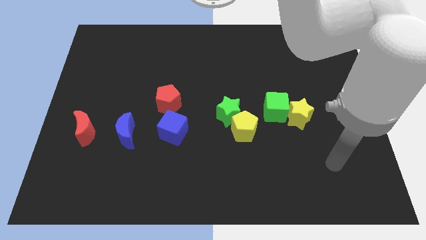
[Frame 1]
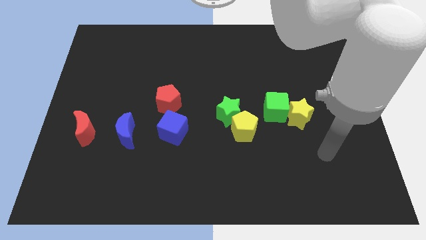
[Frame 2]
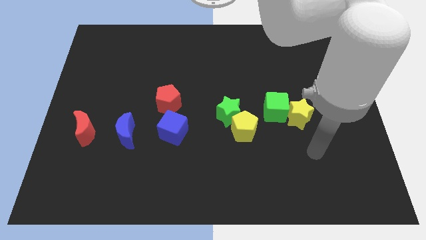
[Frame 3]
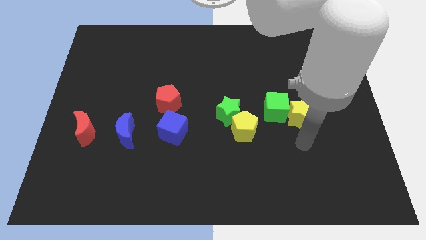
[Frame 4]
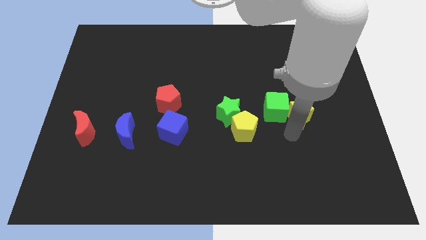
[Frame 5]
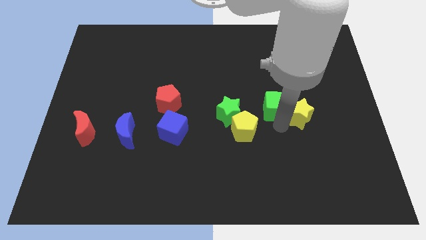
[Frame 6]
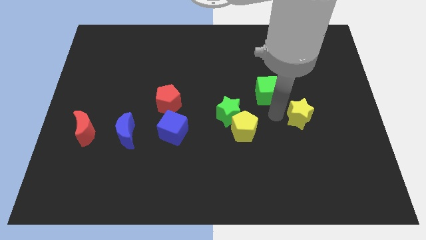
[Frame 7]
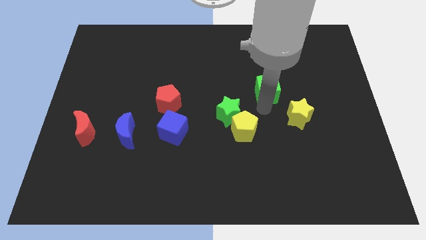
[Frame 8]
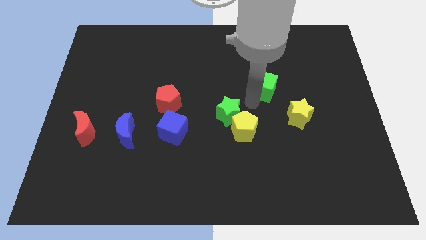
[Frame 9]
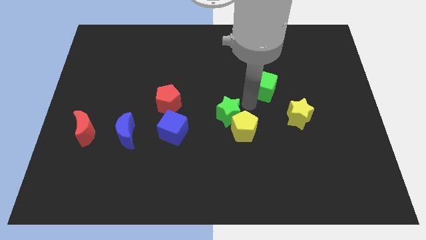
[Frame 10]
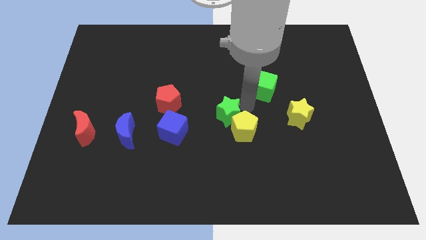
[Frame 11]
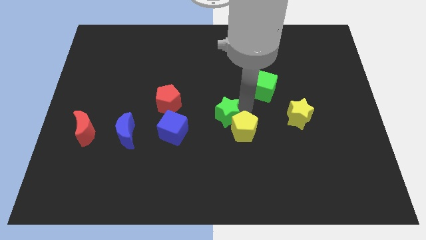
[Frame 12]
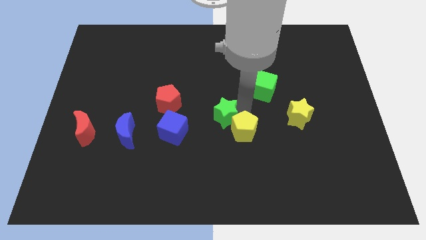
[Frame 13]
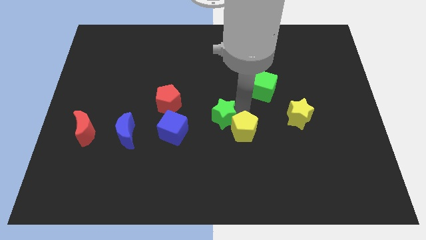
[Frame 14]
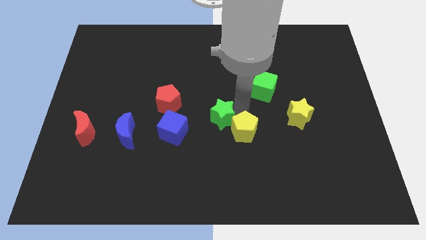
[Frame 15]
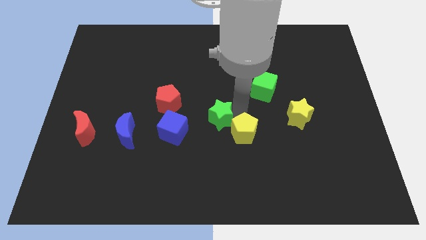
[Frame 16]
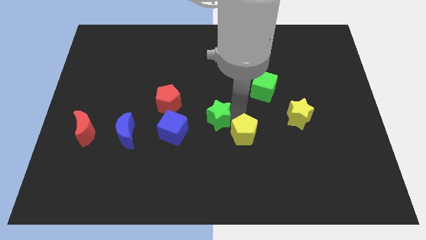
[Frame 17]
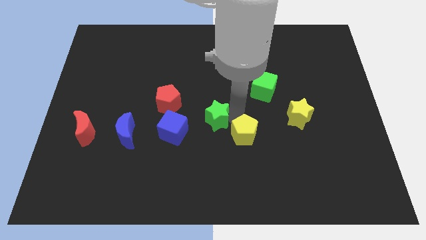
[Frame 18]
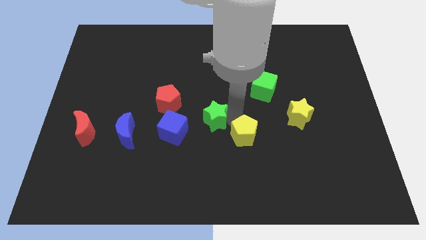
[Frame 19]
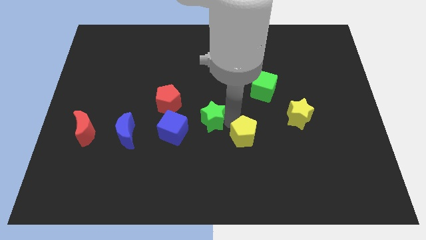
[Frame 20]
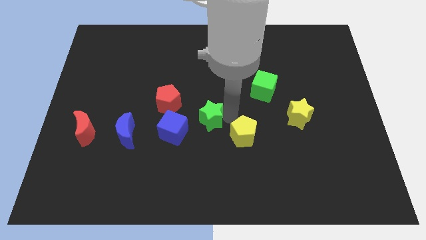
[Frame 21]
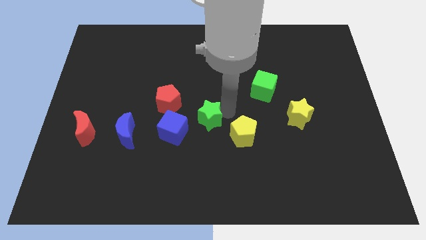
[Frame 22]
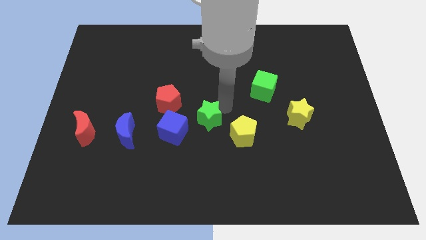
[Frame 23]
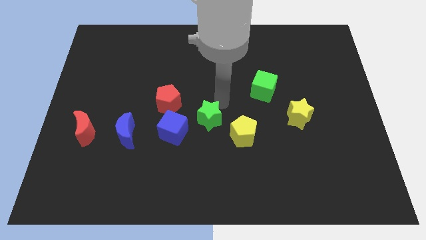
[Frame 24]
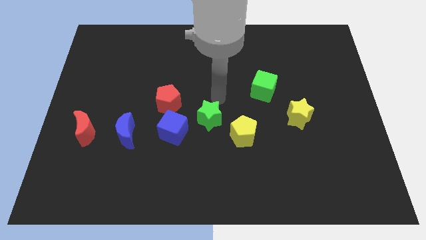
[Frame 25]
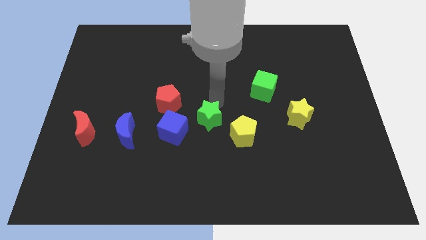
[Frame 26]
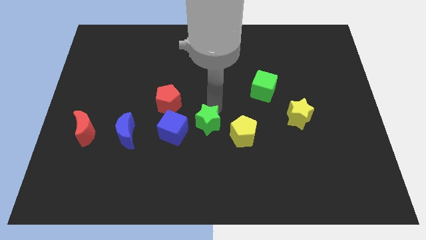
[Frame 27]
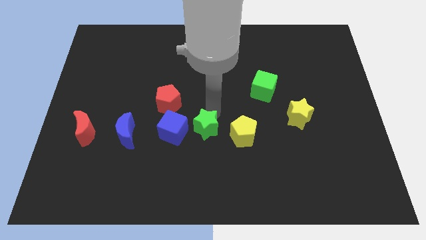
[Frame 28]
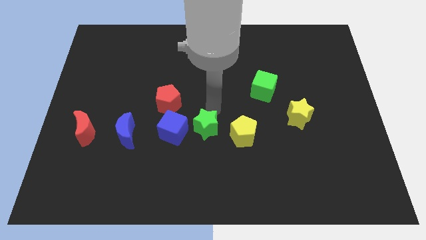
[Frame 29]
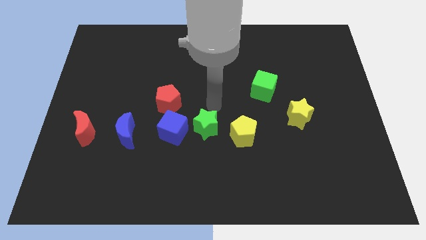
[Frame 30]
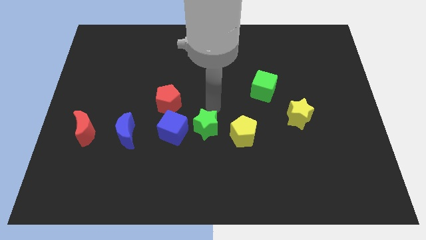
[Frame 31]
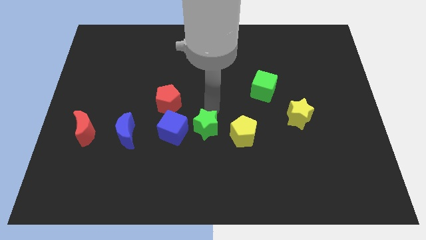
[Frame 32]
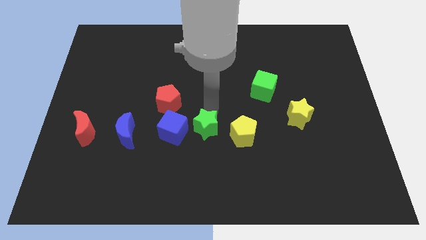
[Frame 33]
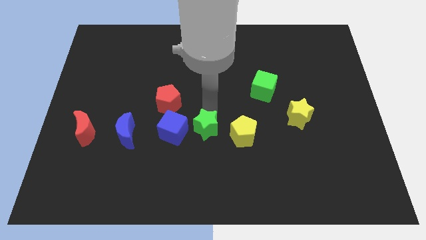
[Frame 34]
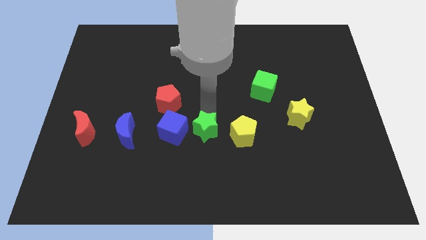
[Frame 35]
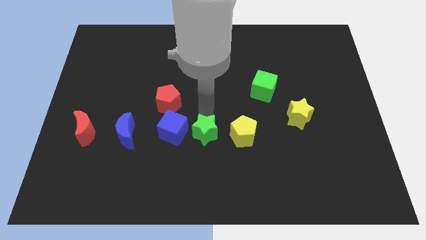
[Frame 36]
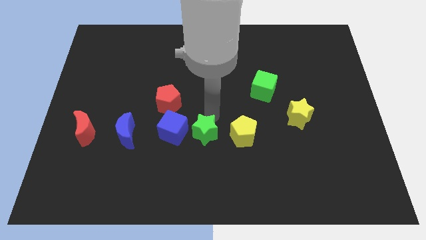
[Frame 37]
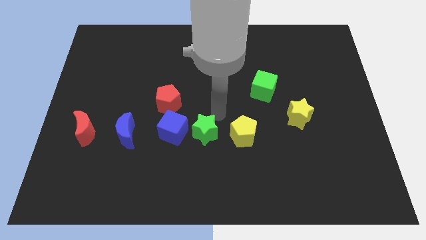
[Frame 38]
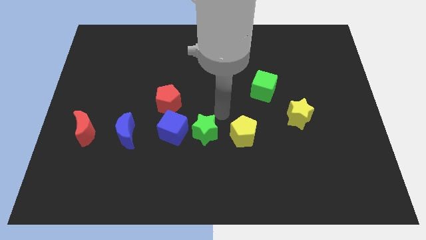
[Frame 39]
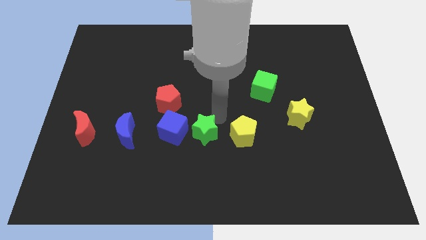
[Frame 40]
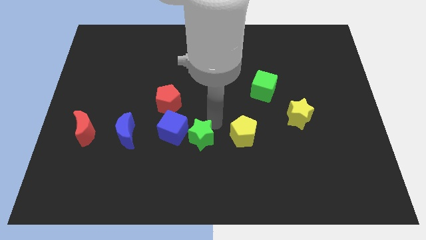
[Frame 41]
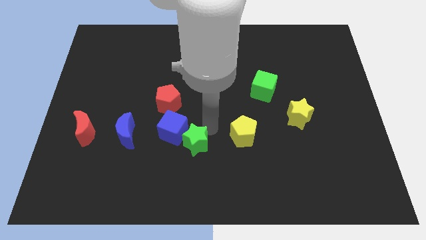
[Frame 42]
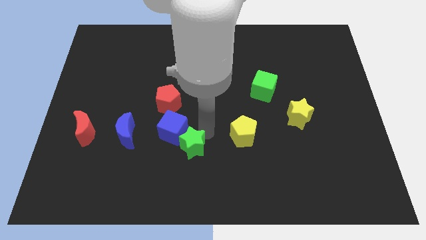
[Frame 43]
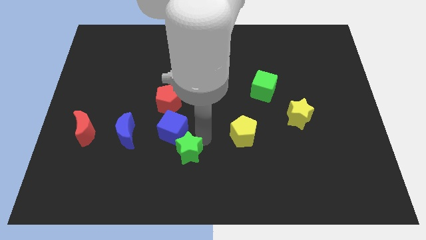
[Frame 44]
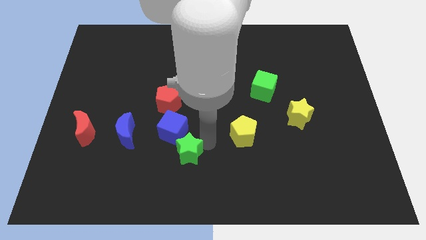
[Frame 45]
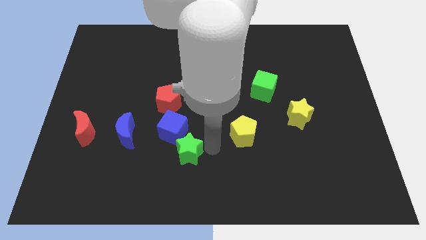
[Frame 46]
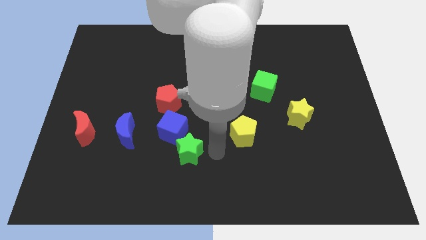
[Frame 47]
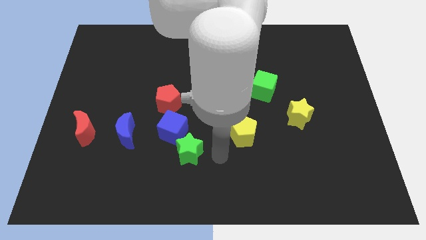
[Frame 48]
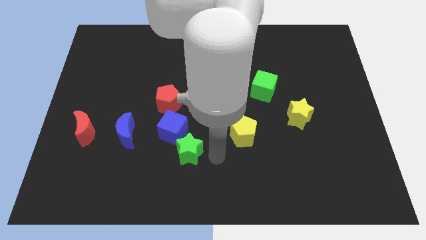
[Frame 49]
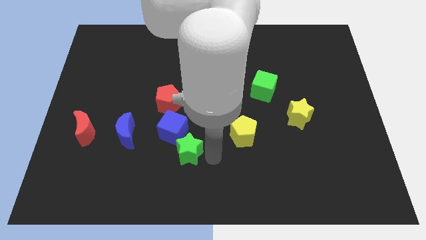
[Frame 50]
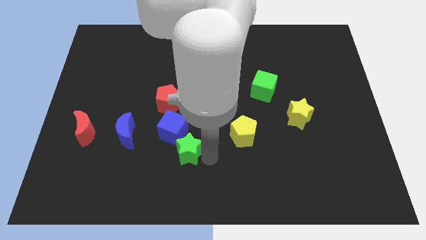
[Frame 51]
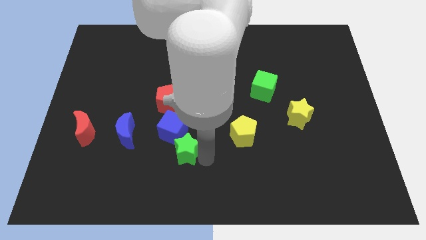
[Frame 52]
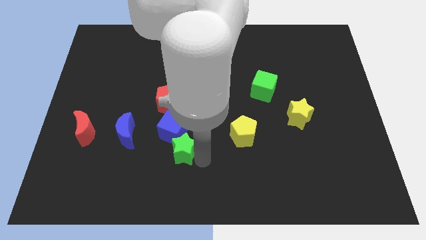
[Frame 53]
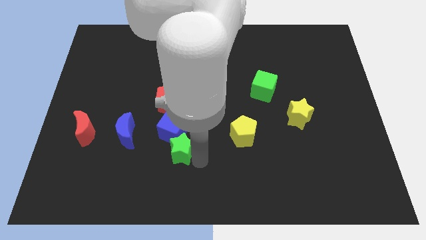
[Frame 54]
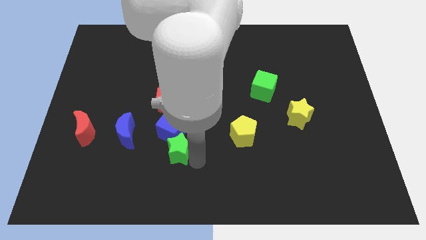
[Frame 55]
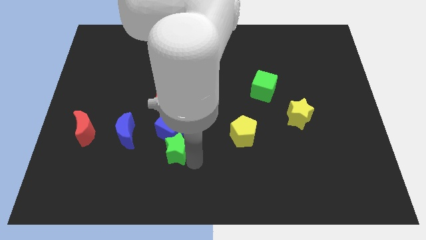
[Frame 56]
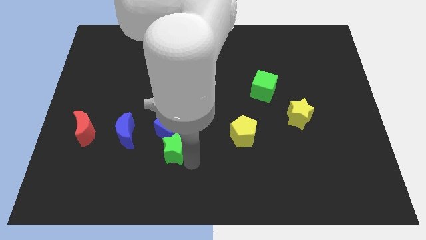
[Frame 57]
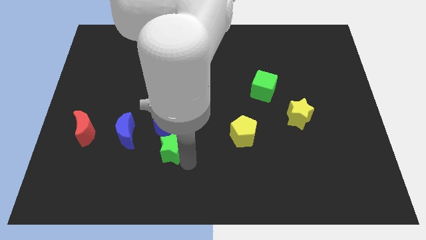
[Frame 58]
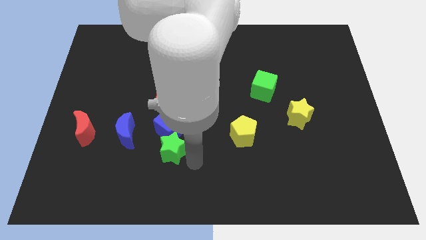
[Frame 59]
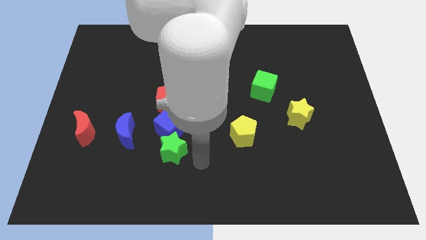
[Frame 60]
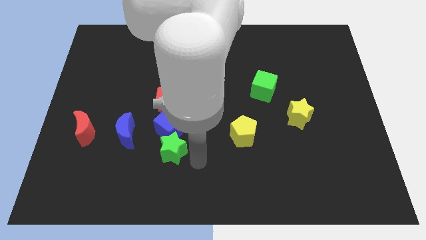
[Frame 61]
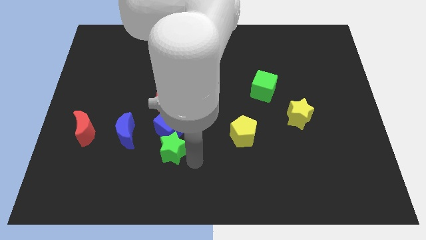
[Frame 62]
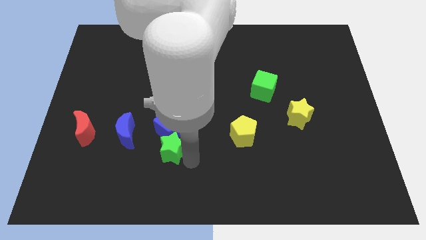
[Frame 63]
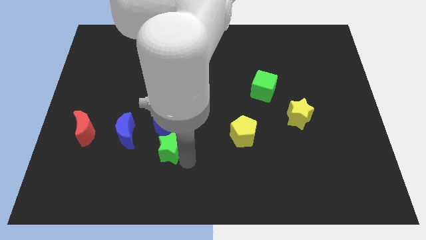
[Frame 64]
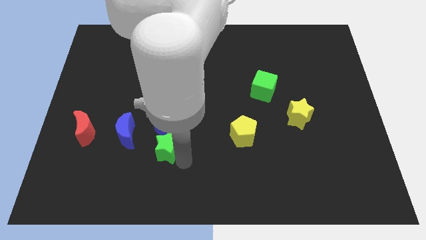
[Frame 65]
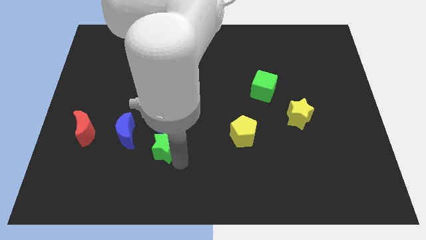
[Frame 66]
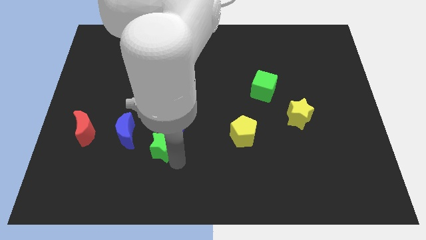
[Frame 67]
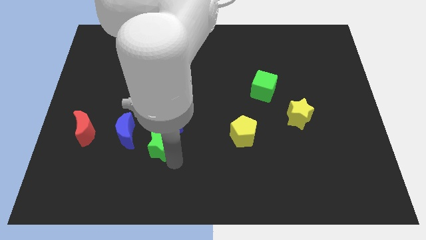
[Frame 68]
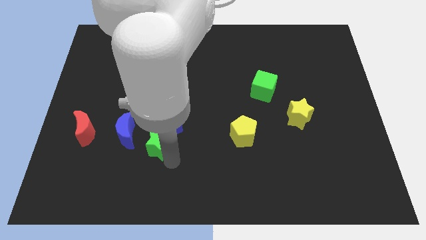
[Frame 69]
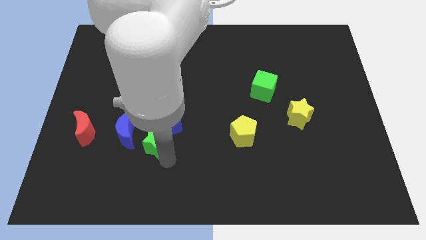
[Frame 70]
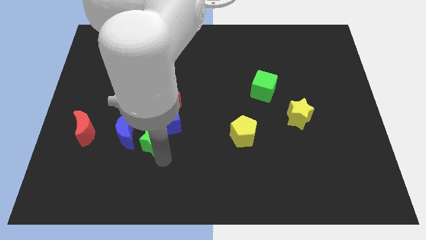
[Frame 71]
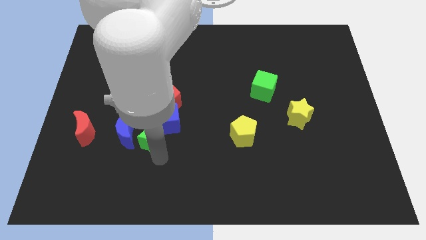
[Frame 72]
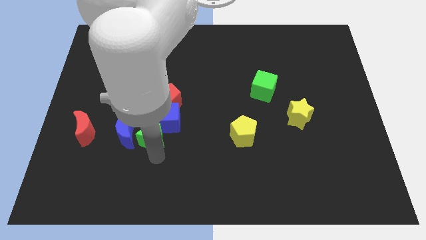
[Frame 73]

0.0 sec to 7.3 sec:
slide the green star next to the blue moon

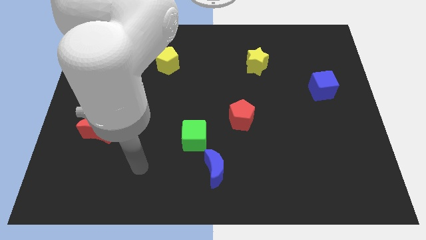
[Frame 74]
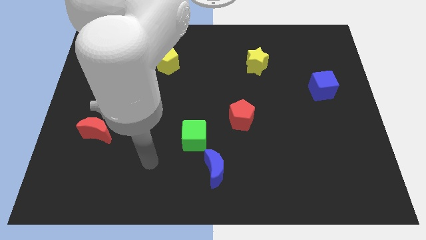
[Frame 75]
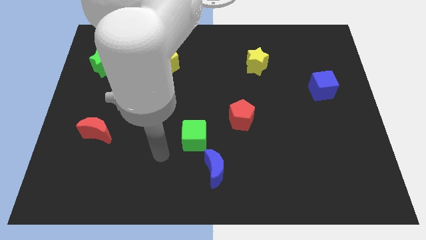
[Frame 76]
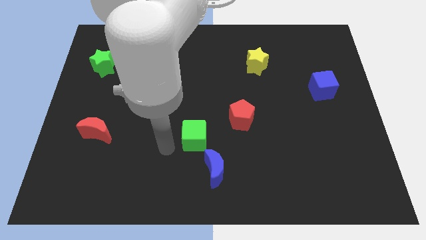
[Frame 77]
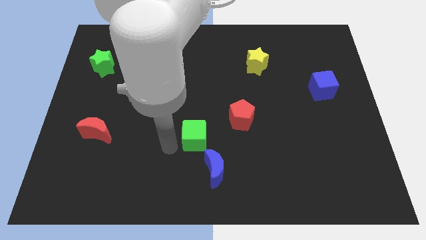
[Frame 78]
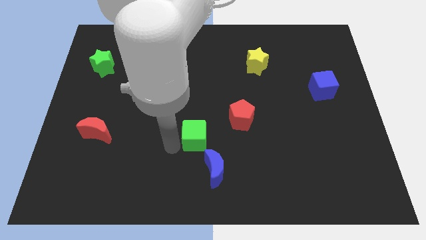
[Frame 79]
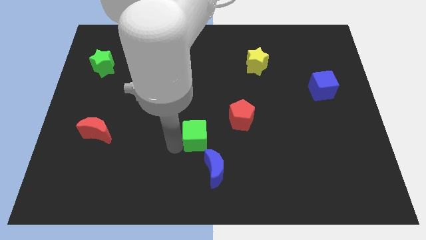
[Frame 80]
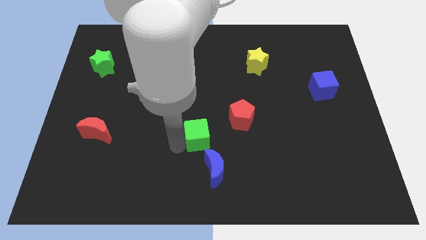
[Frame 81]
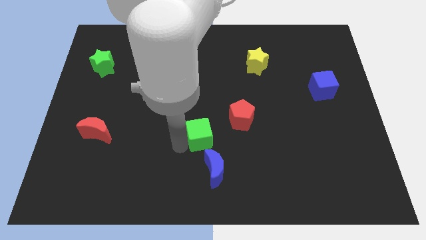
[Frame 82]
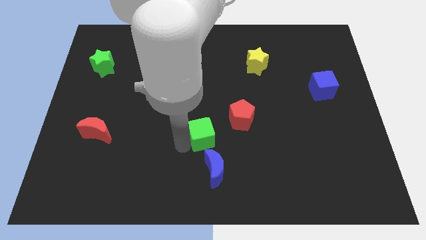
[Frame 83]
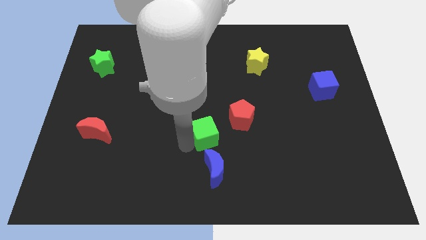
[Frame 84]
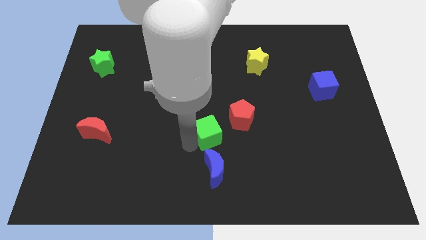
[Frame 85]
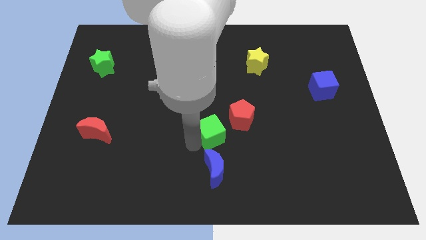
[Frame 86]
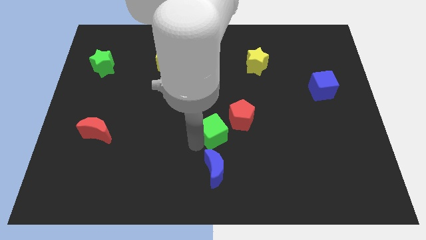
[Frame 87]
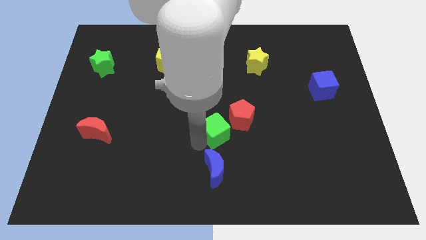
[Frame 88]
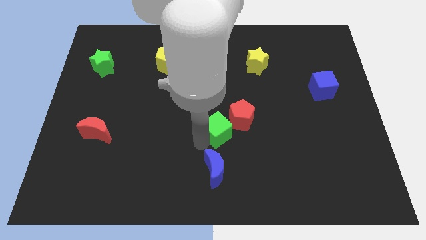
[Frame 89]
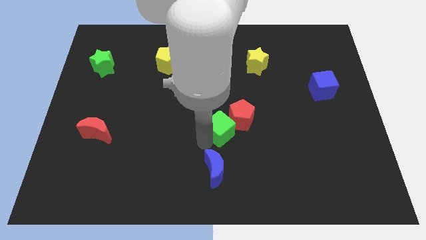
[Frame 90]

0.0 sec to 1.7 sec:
put the green cube towards the red pentagon
